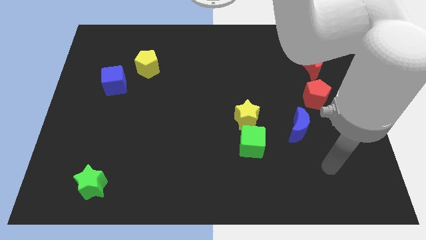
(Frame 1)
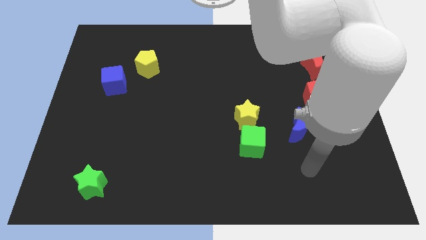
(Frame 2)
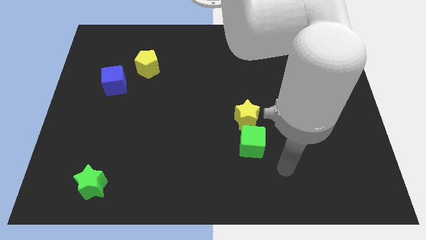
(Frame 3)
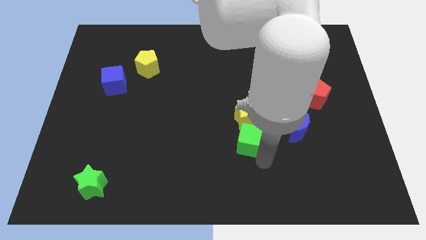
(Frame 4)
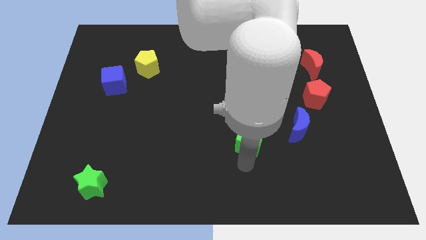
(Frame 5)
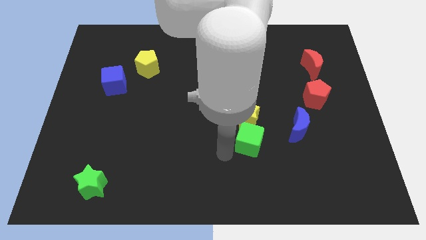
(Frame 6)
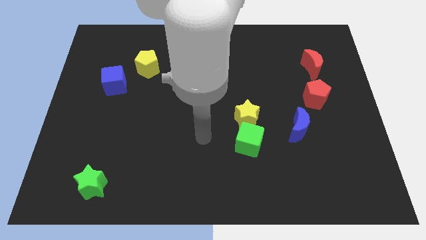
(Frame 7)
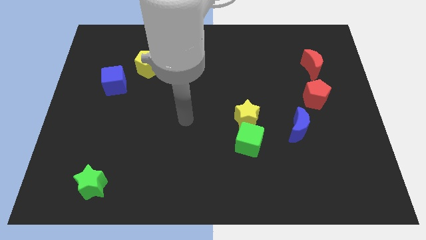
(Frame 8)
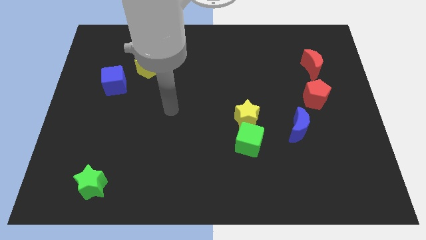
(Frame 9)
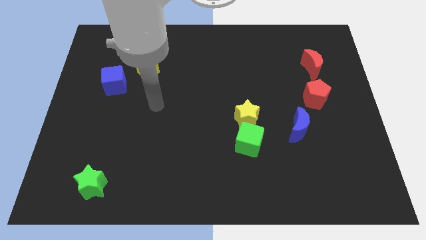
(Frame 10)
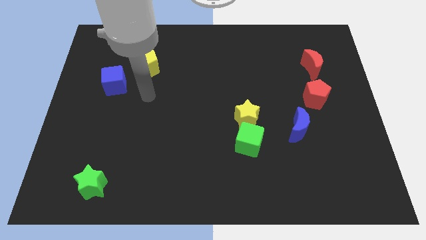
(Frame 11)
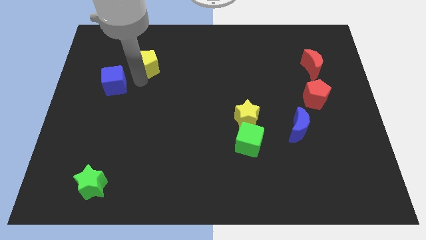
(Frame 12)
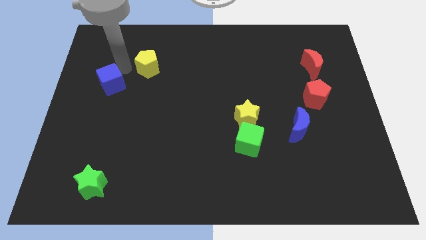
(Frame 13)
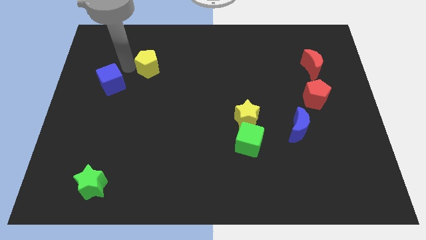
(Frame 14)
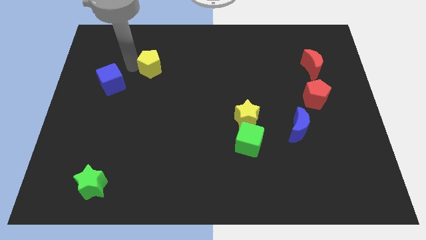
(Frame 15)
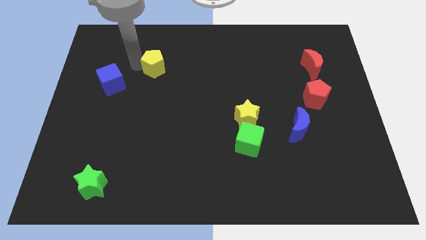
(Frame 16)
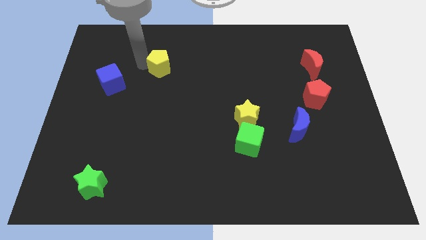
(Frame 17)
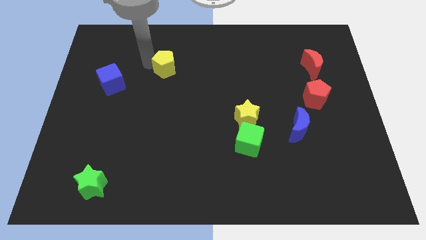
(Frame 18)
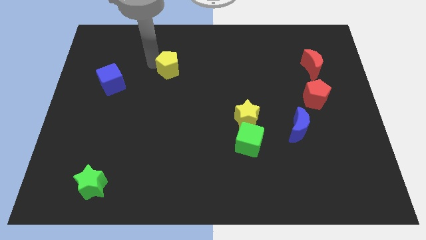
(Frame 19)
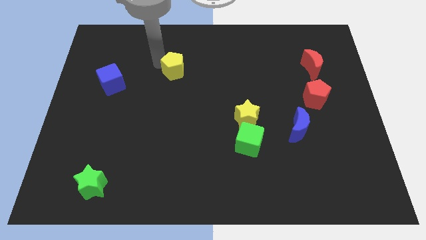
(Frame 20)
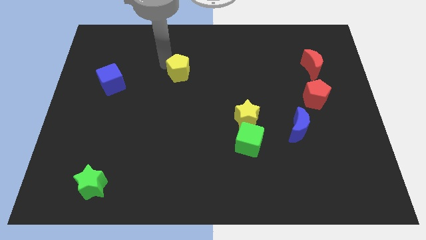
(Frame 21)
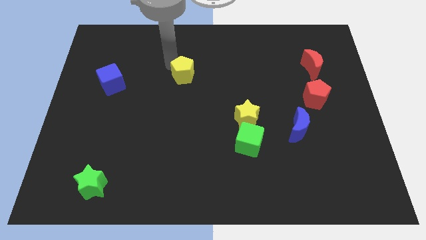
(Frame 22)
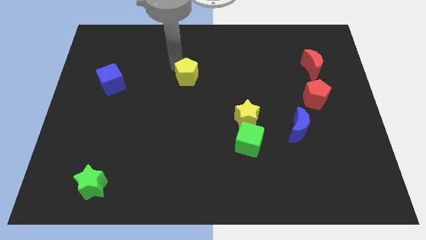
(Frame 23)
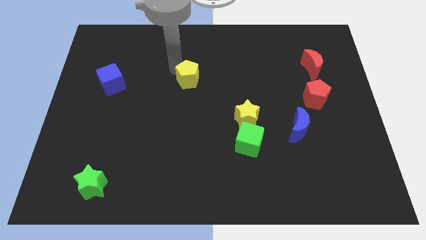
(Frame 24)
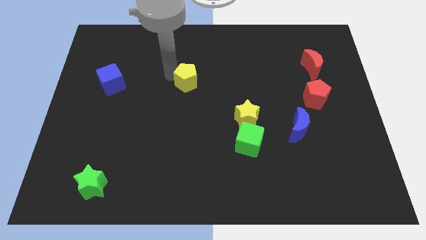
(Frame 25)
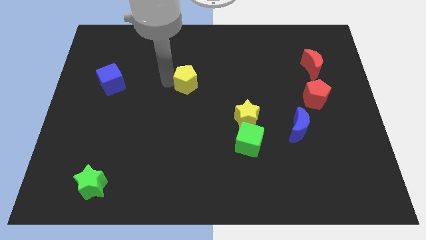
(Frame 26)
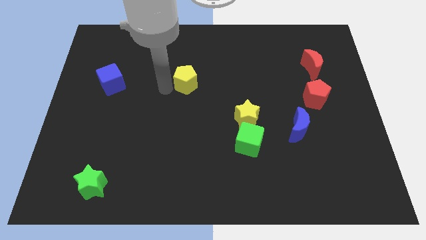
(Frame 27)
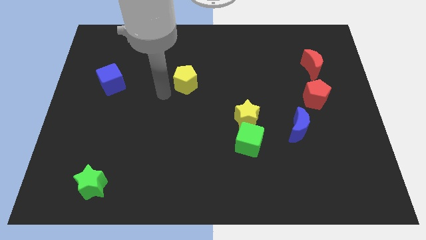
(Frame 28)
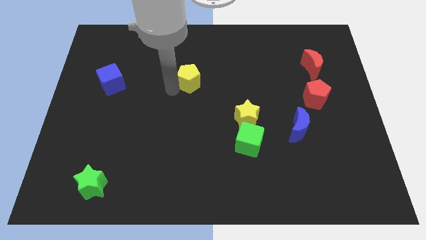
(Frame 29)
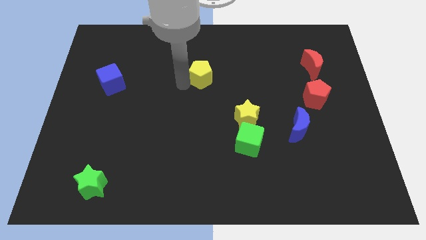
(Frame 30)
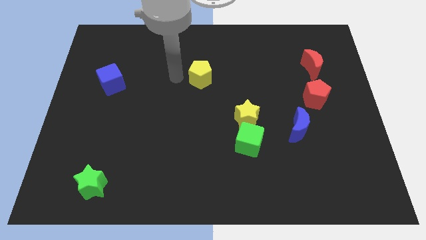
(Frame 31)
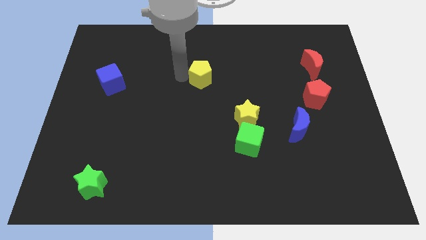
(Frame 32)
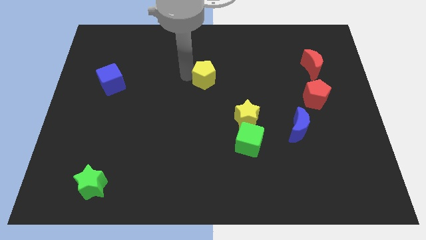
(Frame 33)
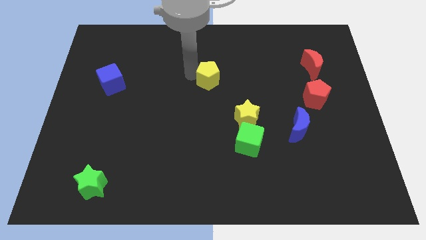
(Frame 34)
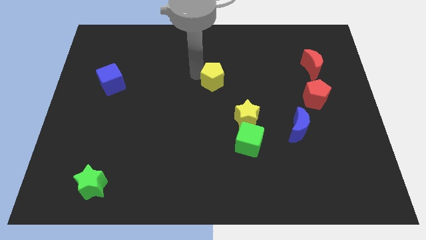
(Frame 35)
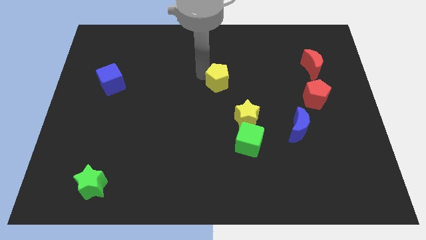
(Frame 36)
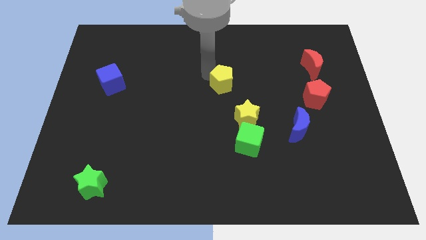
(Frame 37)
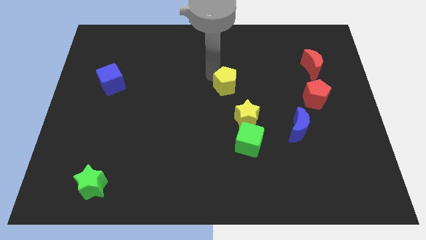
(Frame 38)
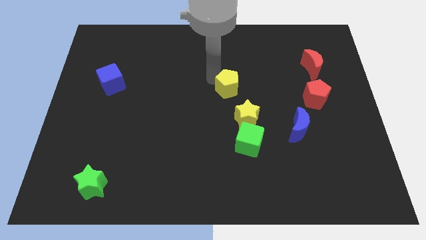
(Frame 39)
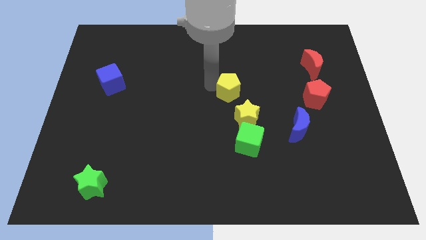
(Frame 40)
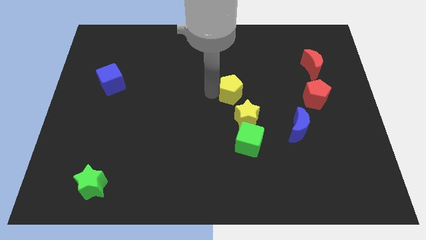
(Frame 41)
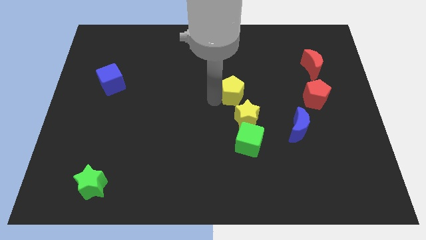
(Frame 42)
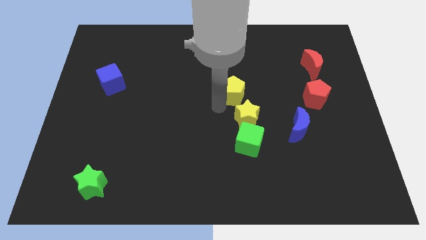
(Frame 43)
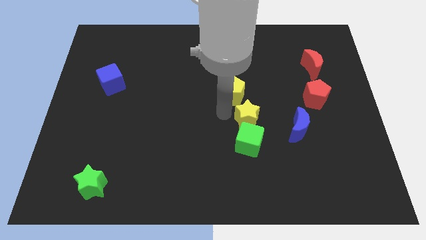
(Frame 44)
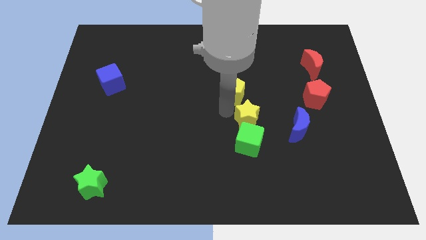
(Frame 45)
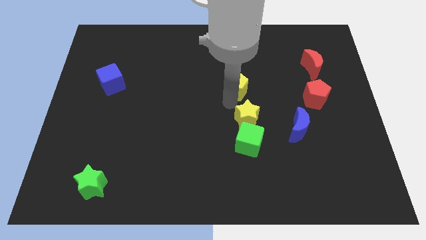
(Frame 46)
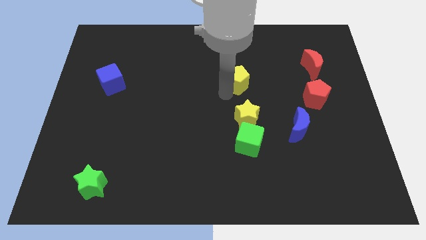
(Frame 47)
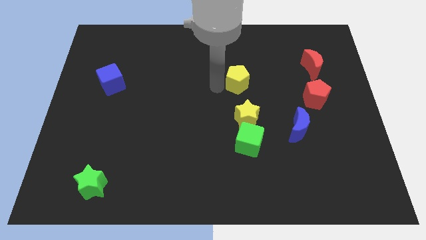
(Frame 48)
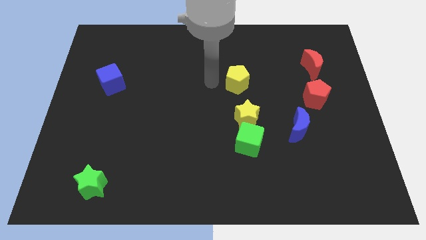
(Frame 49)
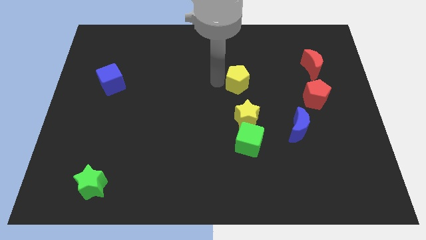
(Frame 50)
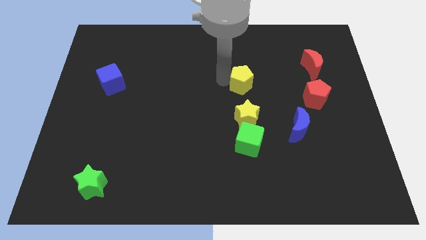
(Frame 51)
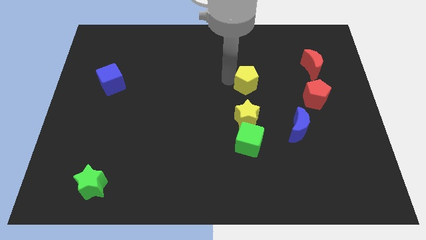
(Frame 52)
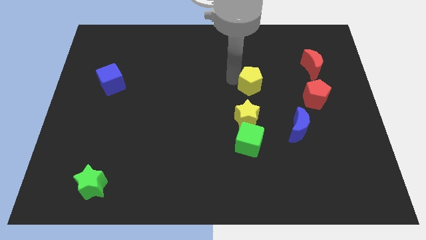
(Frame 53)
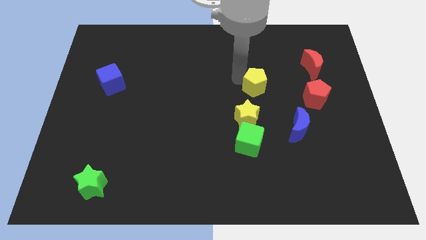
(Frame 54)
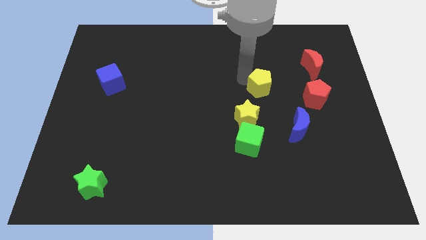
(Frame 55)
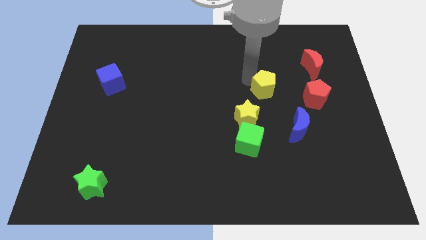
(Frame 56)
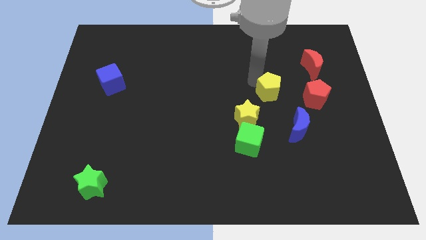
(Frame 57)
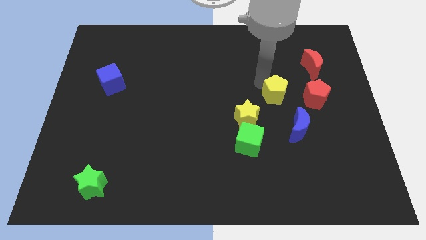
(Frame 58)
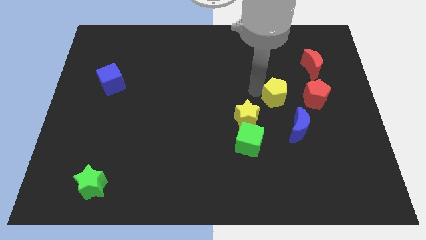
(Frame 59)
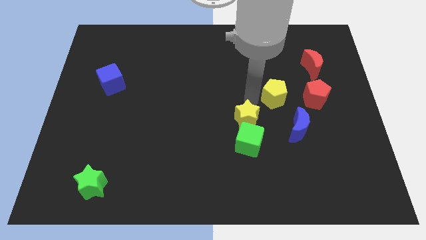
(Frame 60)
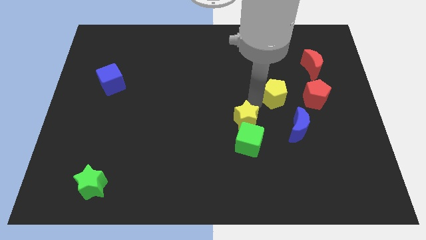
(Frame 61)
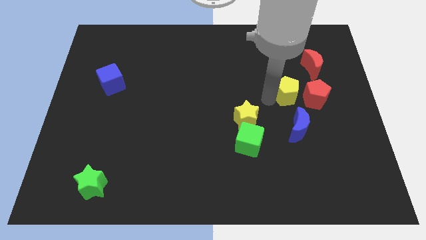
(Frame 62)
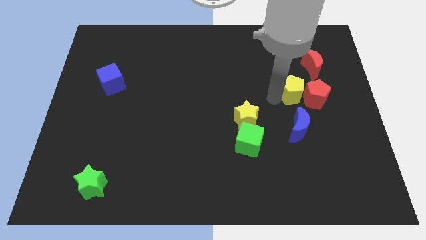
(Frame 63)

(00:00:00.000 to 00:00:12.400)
put the yellow pentagon to the red pentagon

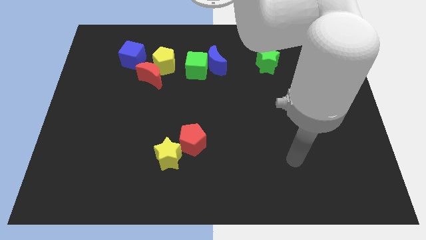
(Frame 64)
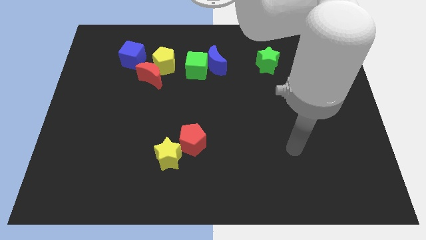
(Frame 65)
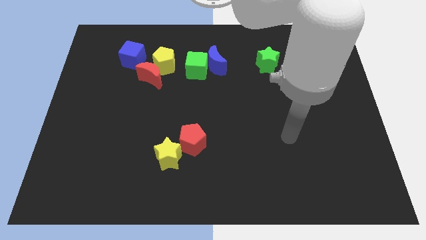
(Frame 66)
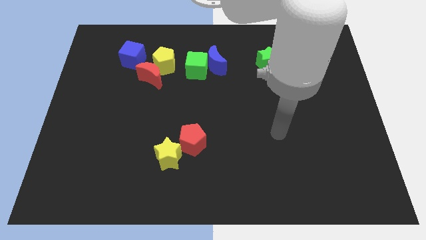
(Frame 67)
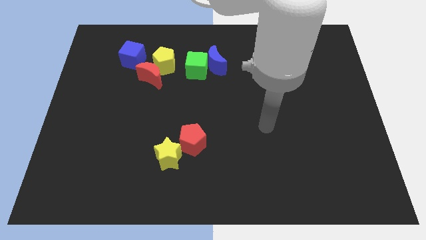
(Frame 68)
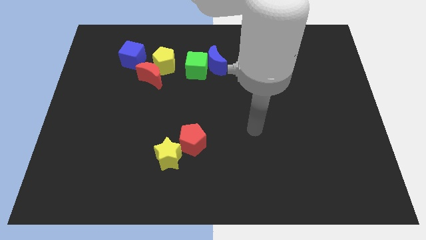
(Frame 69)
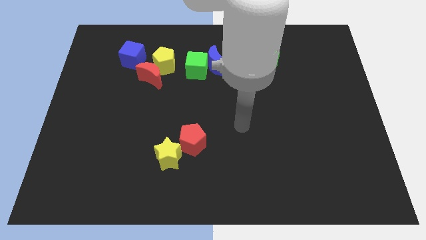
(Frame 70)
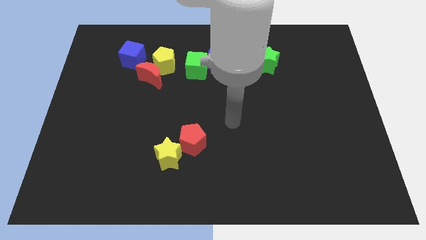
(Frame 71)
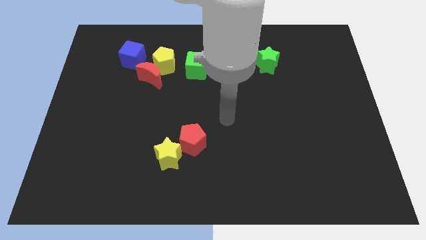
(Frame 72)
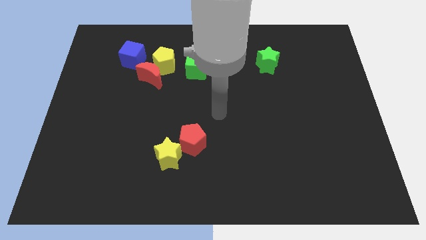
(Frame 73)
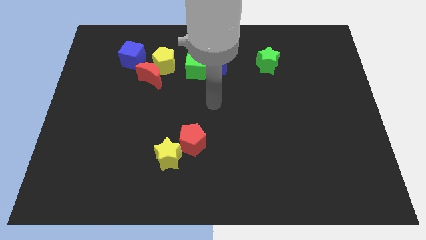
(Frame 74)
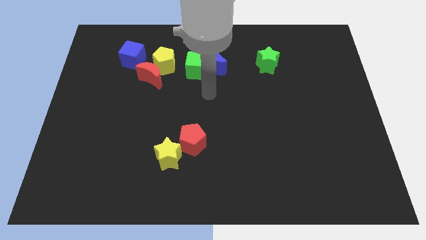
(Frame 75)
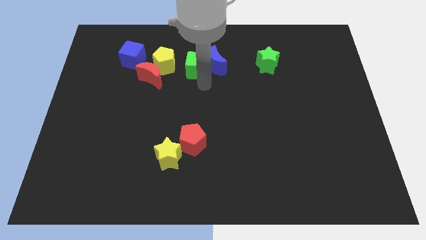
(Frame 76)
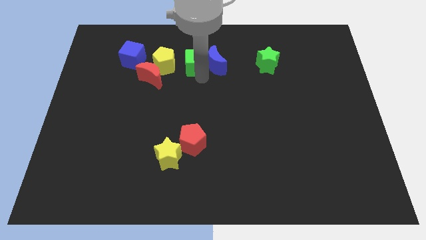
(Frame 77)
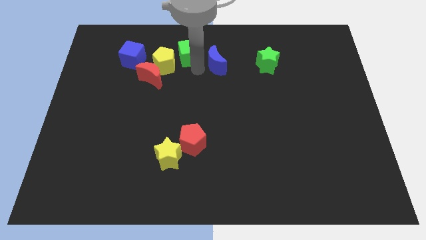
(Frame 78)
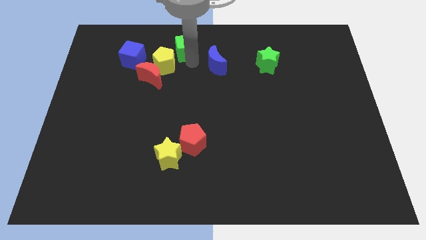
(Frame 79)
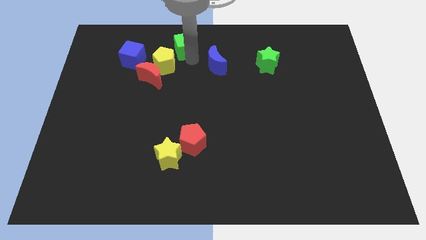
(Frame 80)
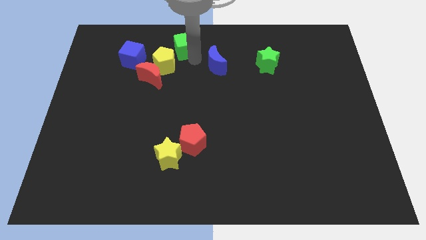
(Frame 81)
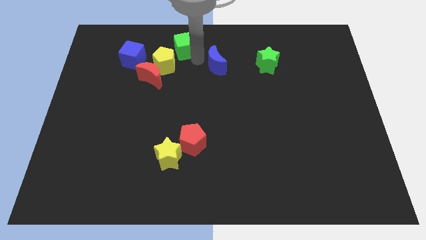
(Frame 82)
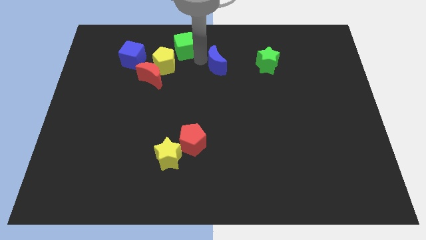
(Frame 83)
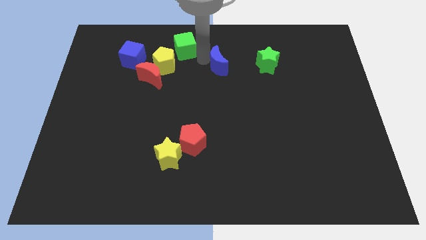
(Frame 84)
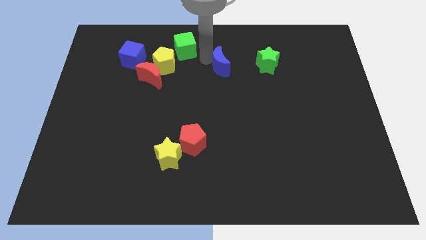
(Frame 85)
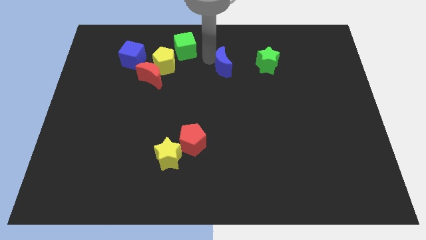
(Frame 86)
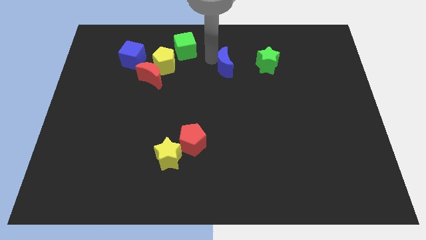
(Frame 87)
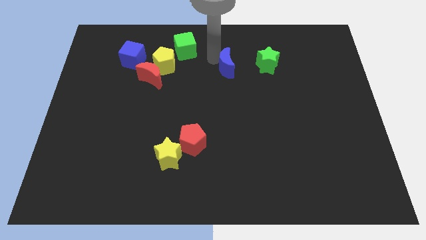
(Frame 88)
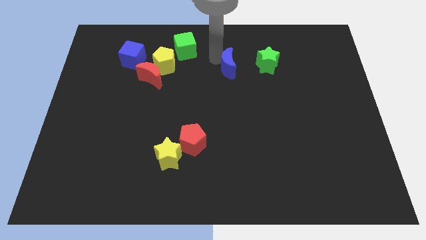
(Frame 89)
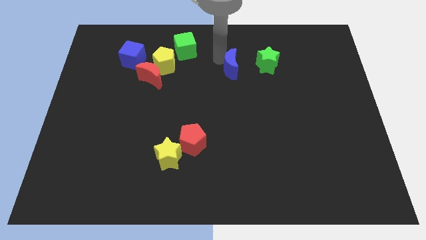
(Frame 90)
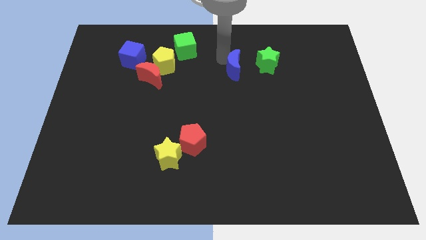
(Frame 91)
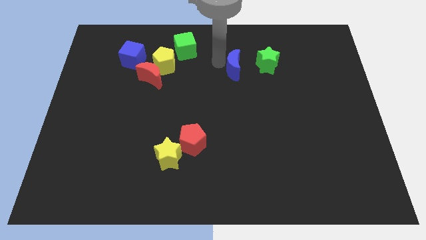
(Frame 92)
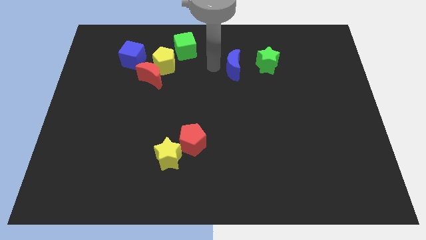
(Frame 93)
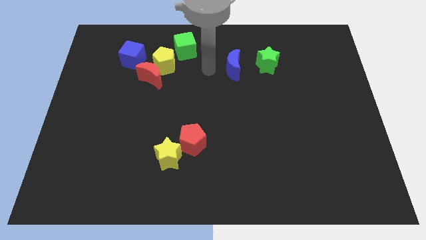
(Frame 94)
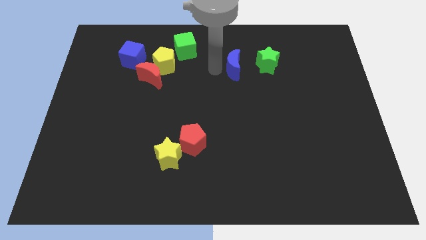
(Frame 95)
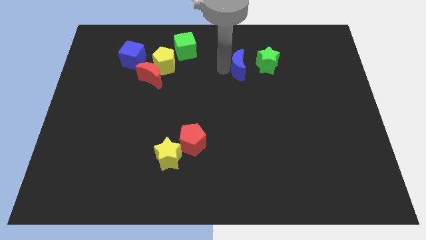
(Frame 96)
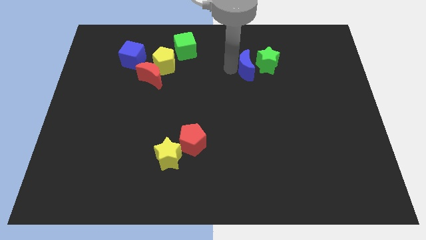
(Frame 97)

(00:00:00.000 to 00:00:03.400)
slide the blue moon to the green star
